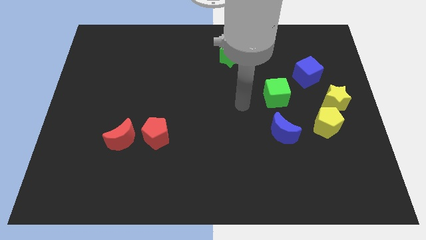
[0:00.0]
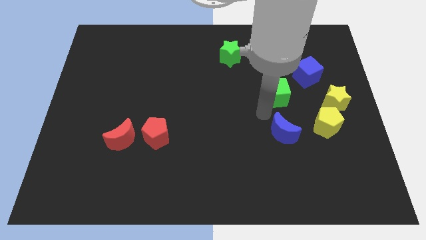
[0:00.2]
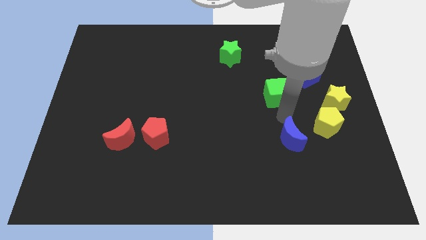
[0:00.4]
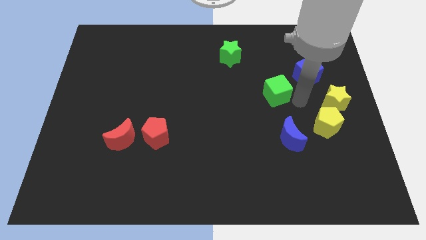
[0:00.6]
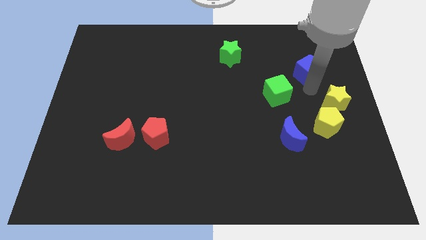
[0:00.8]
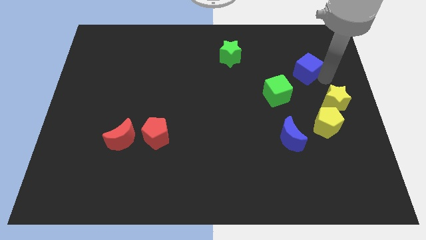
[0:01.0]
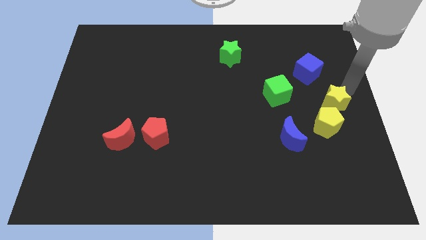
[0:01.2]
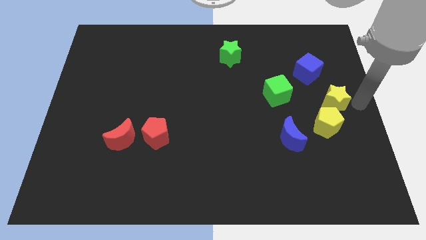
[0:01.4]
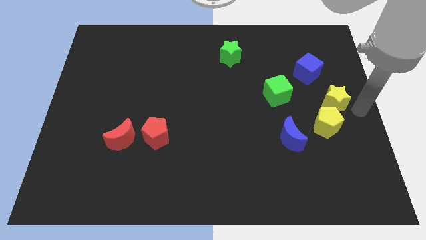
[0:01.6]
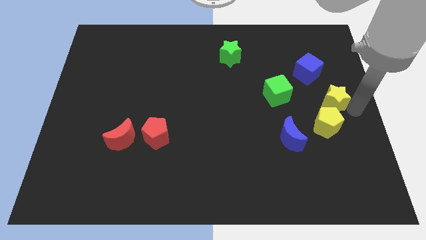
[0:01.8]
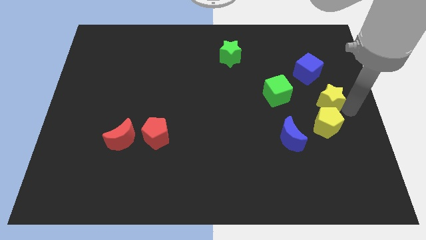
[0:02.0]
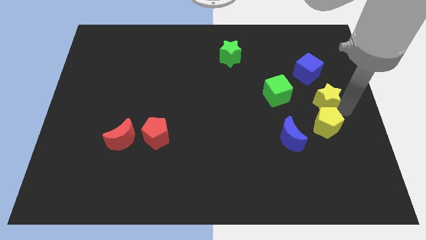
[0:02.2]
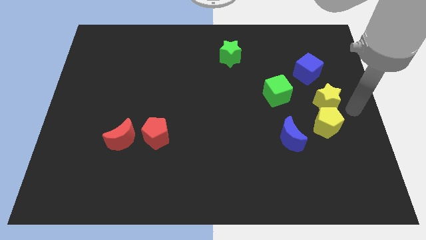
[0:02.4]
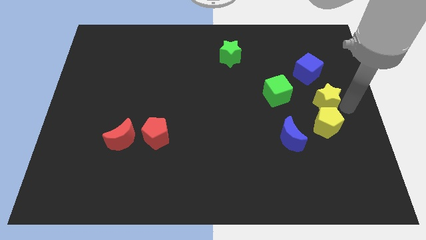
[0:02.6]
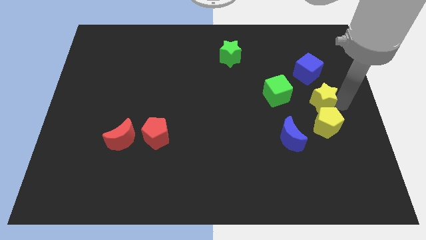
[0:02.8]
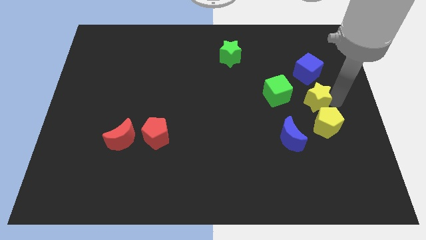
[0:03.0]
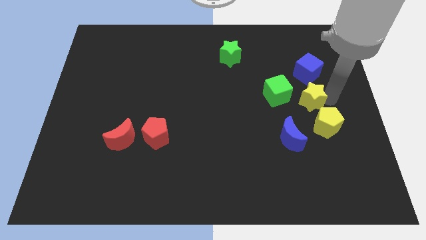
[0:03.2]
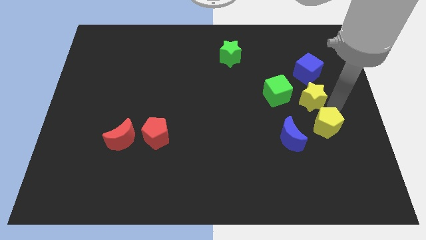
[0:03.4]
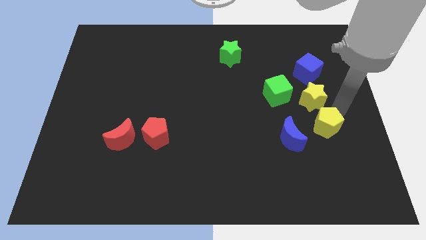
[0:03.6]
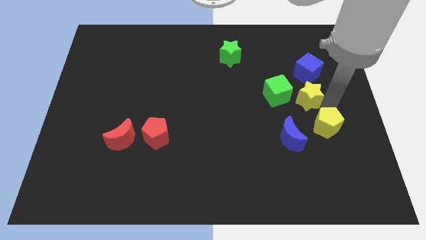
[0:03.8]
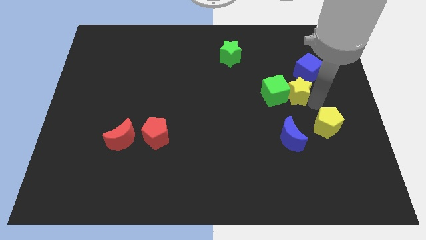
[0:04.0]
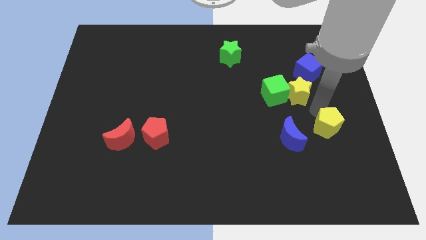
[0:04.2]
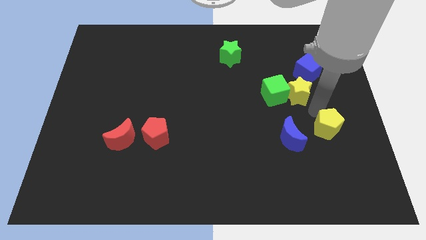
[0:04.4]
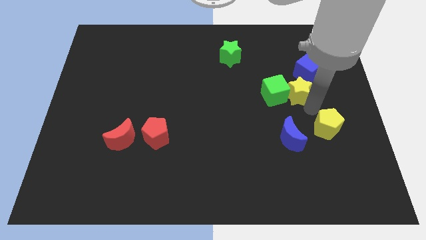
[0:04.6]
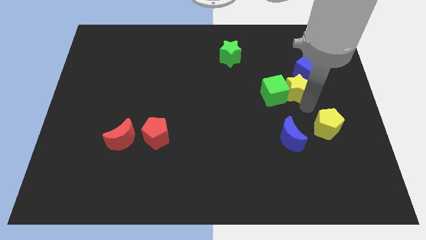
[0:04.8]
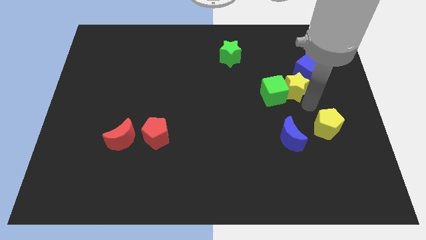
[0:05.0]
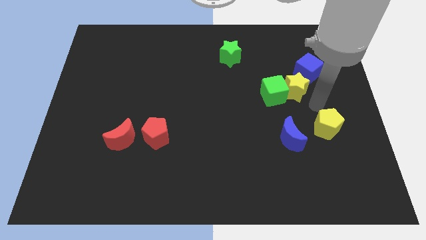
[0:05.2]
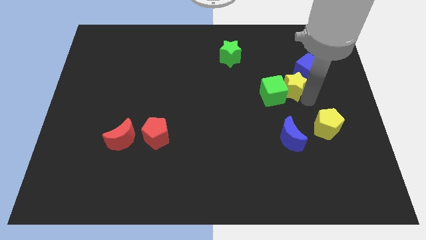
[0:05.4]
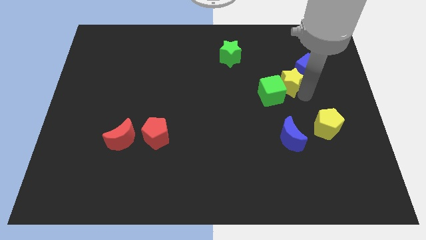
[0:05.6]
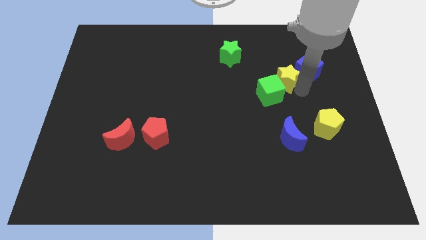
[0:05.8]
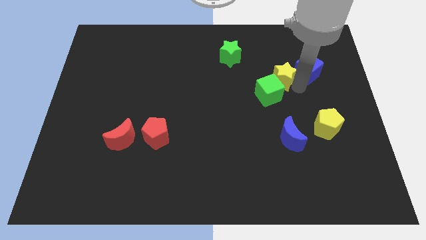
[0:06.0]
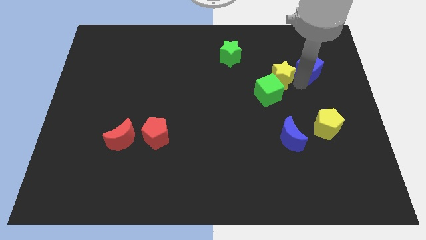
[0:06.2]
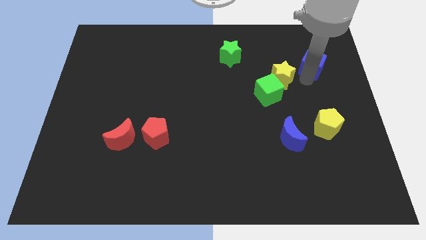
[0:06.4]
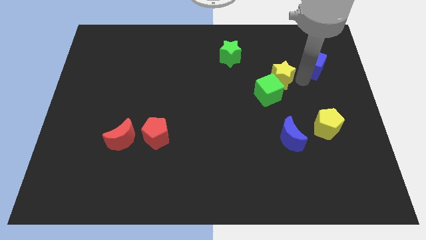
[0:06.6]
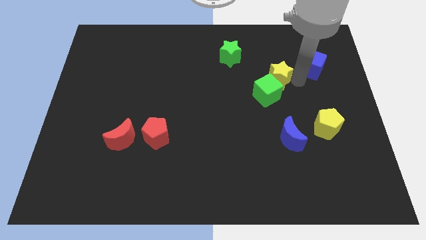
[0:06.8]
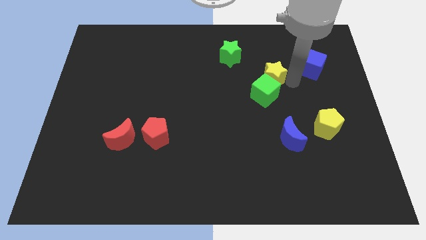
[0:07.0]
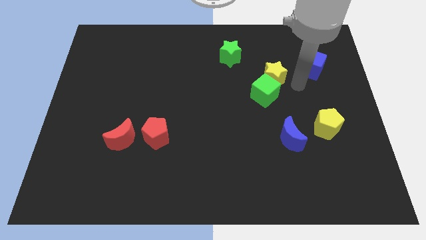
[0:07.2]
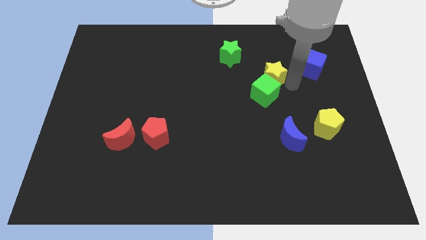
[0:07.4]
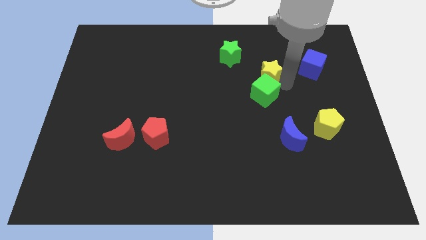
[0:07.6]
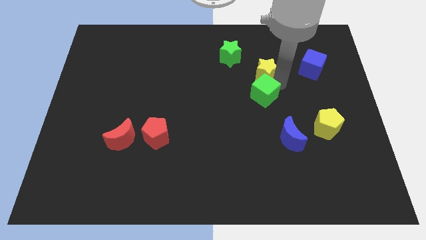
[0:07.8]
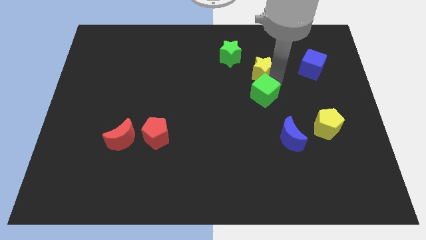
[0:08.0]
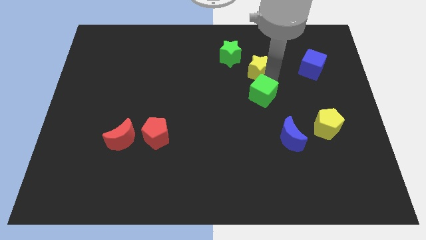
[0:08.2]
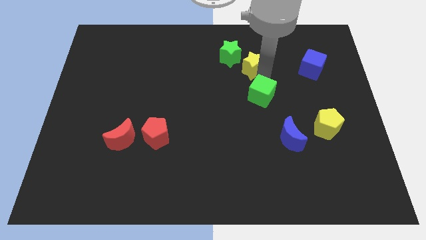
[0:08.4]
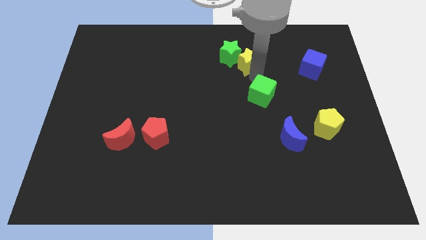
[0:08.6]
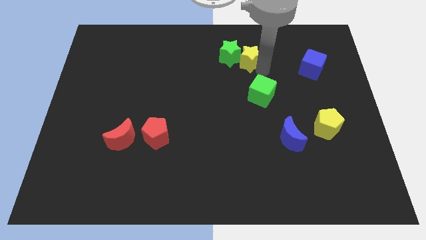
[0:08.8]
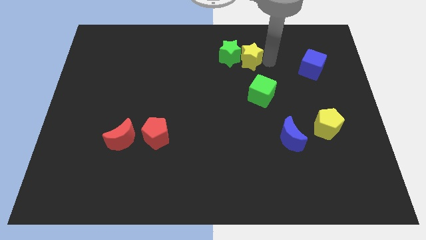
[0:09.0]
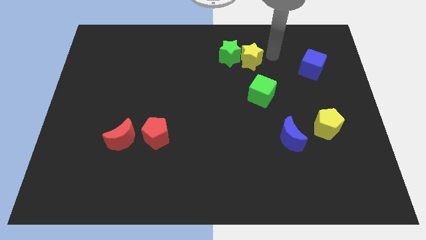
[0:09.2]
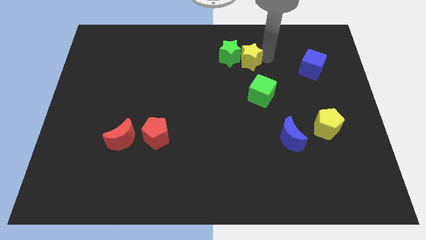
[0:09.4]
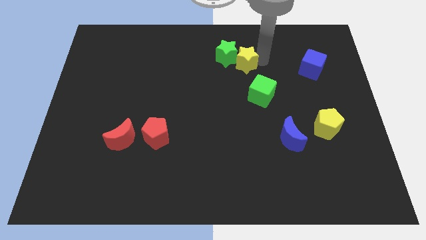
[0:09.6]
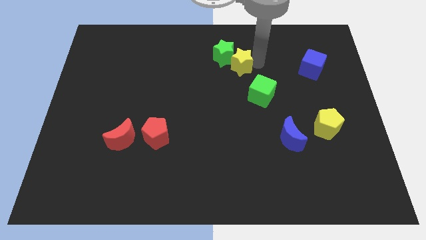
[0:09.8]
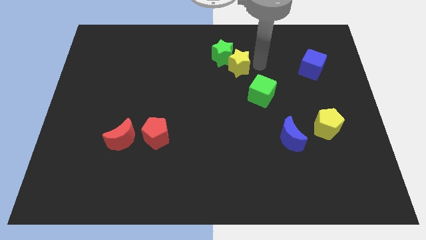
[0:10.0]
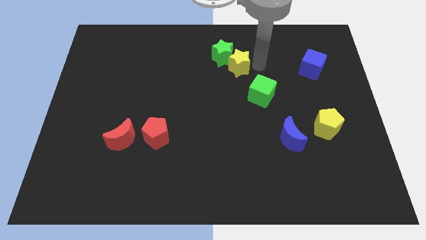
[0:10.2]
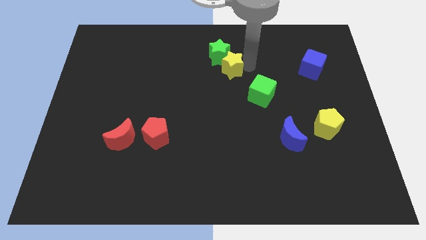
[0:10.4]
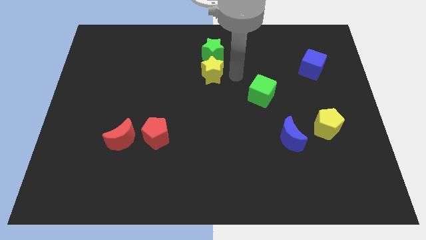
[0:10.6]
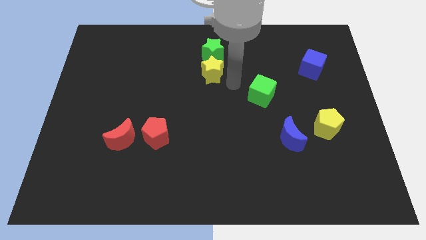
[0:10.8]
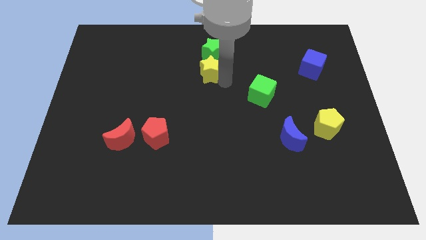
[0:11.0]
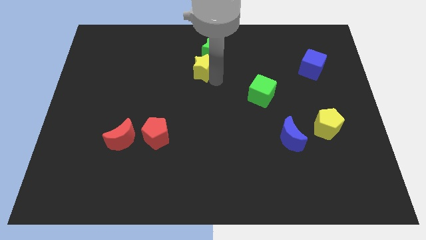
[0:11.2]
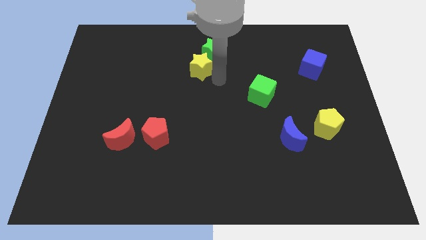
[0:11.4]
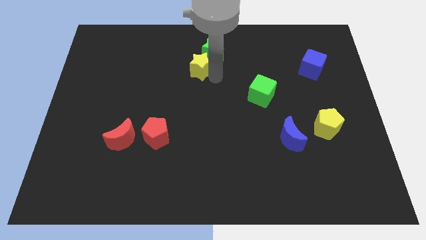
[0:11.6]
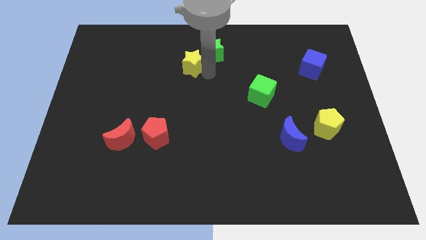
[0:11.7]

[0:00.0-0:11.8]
put the yellow star to the left of the green star

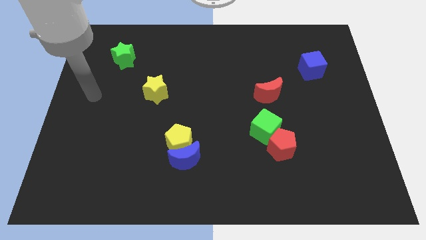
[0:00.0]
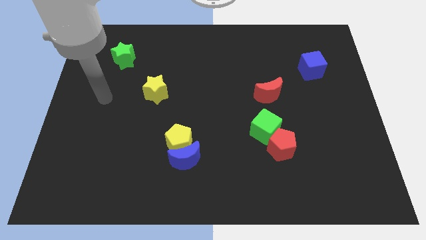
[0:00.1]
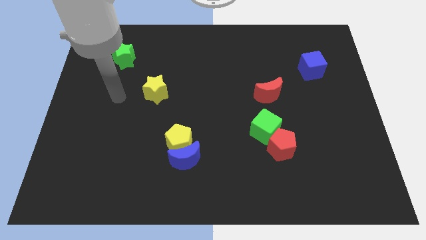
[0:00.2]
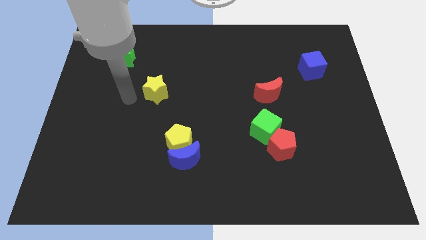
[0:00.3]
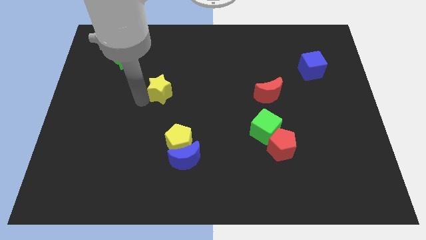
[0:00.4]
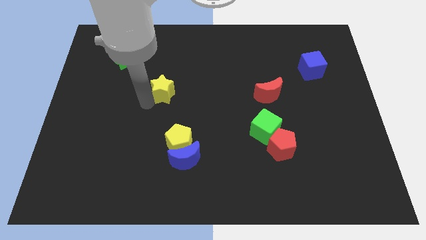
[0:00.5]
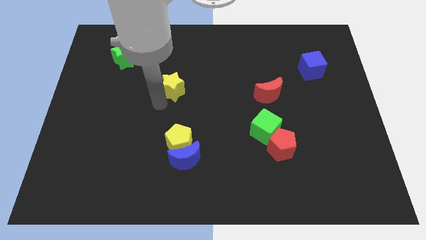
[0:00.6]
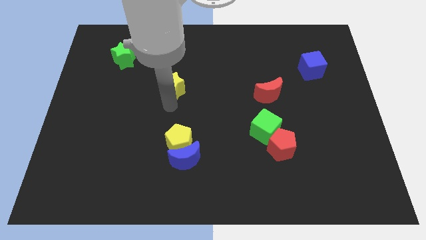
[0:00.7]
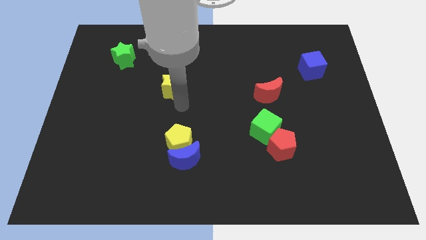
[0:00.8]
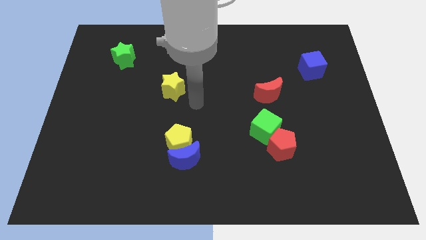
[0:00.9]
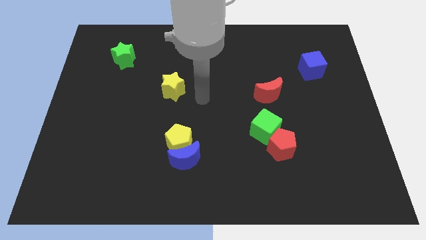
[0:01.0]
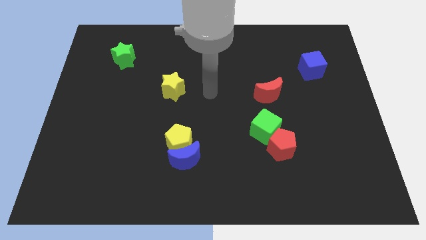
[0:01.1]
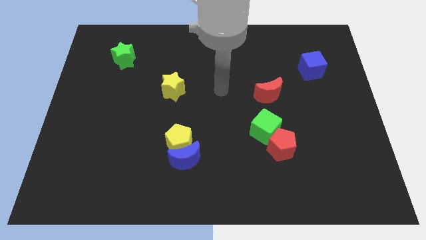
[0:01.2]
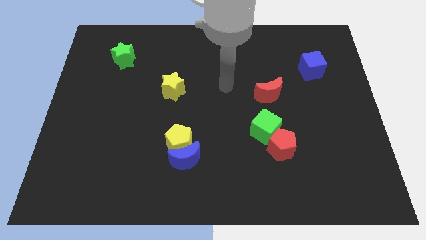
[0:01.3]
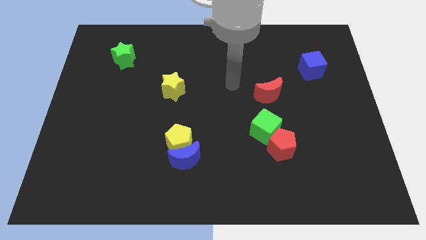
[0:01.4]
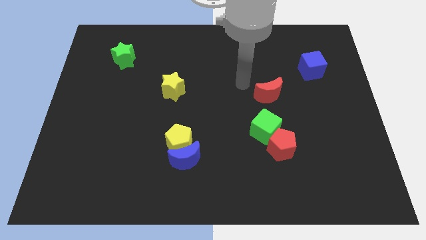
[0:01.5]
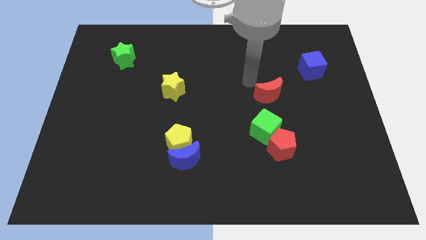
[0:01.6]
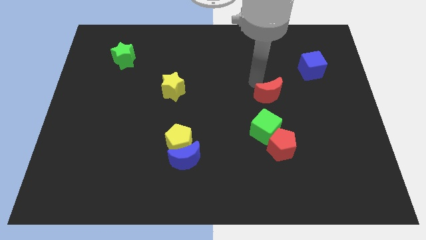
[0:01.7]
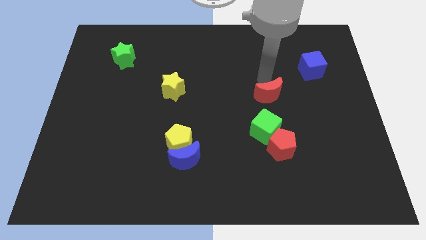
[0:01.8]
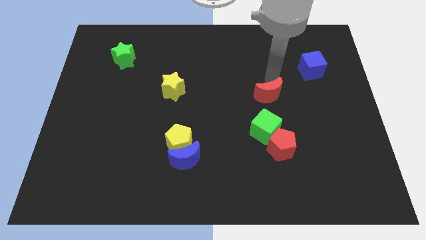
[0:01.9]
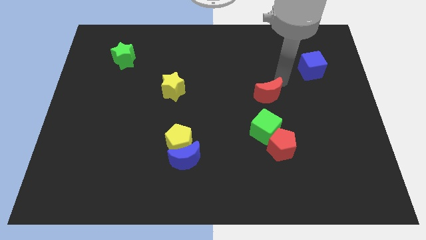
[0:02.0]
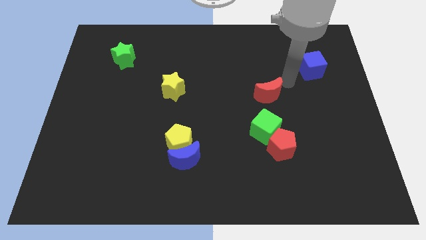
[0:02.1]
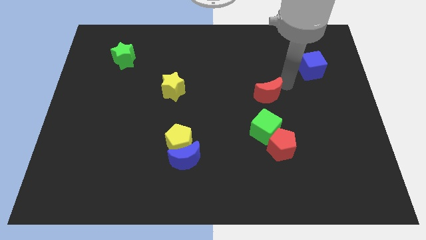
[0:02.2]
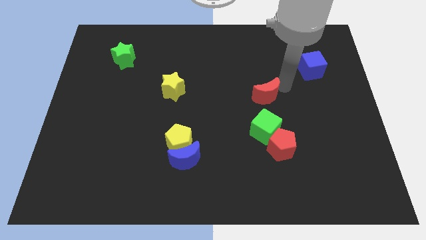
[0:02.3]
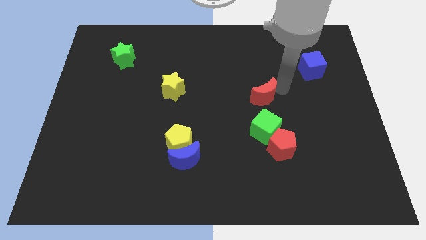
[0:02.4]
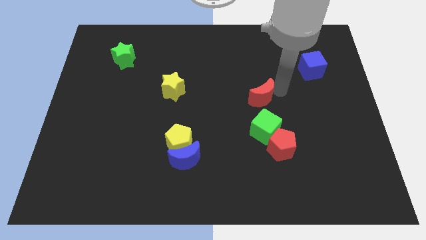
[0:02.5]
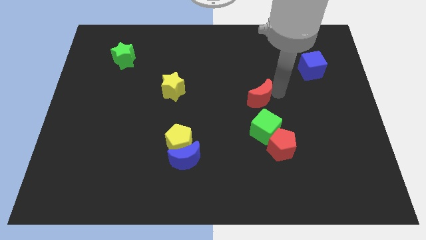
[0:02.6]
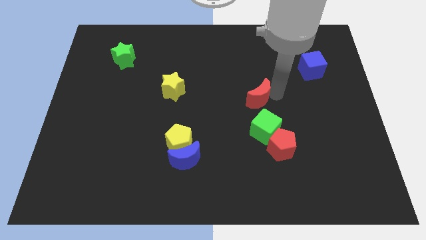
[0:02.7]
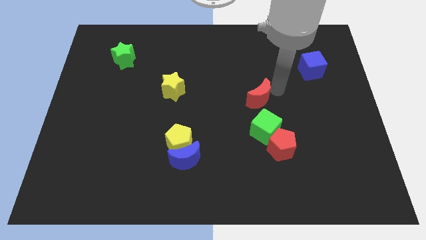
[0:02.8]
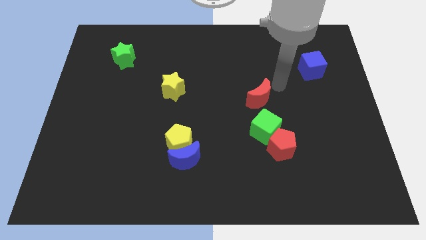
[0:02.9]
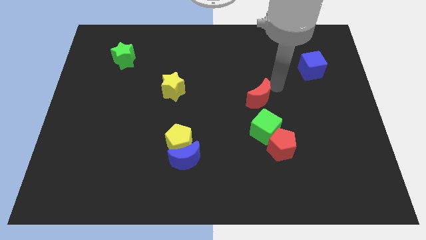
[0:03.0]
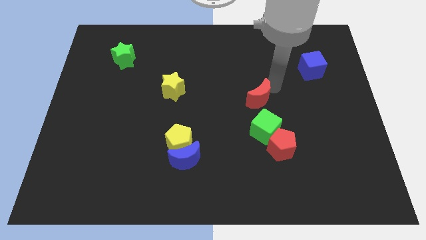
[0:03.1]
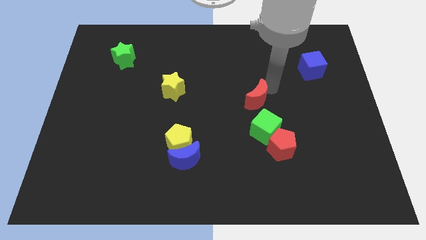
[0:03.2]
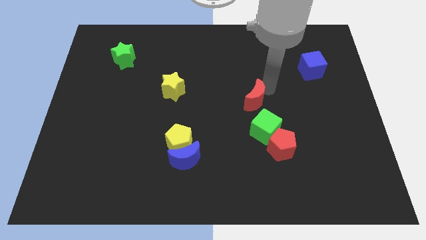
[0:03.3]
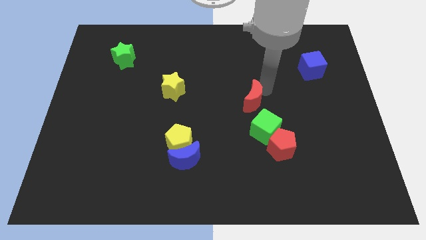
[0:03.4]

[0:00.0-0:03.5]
move the red moon to the top left of the green cube
